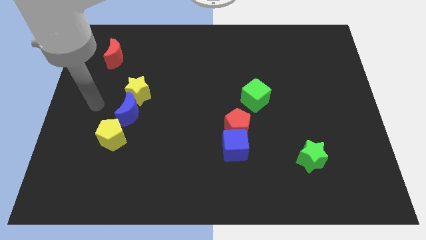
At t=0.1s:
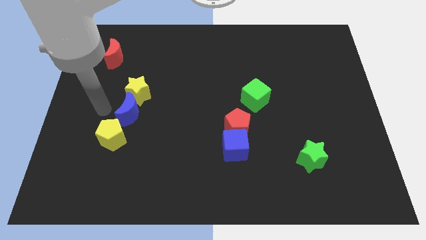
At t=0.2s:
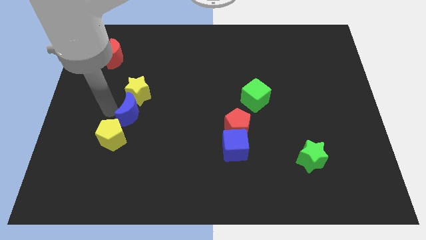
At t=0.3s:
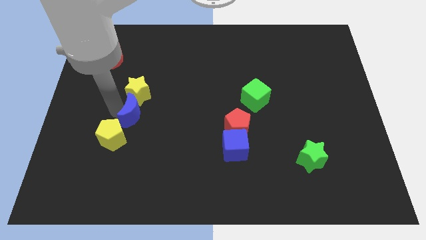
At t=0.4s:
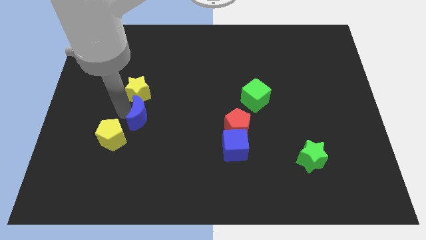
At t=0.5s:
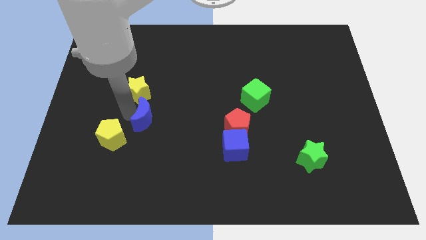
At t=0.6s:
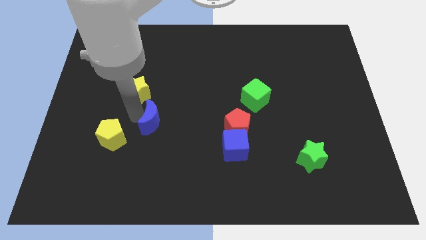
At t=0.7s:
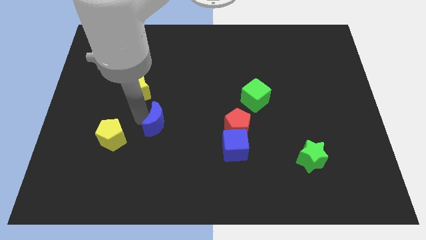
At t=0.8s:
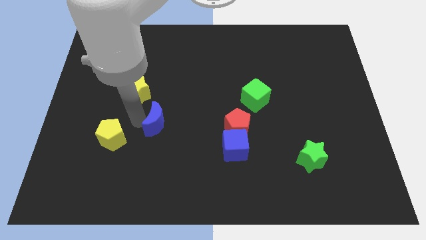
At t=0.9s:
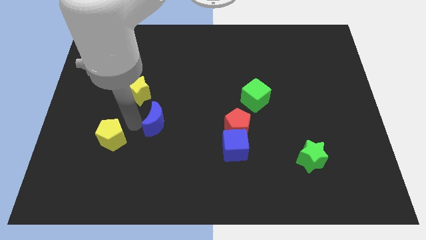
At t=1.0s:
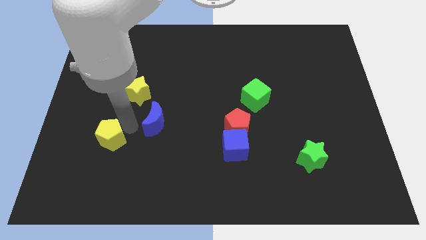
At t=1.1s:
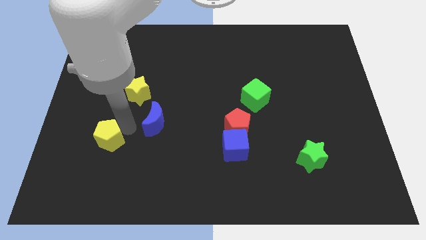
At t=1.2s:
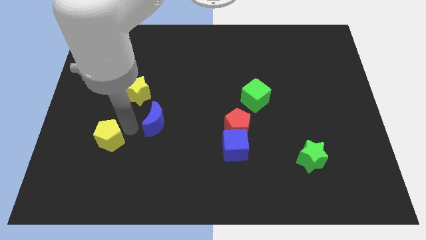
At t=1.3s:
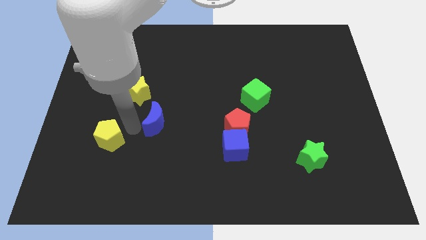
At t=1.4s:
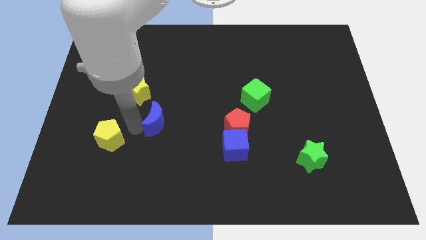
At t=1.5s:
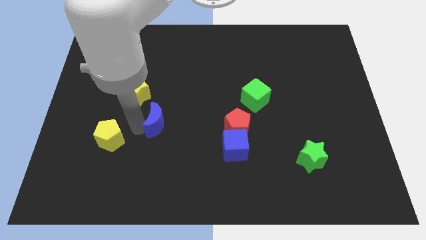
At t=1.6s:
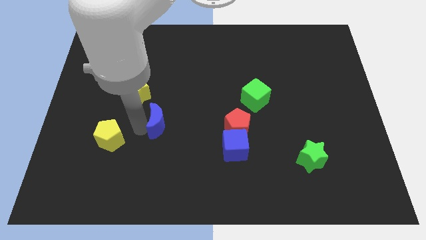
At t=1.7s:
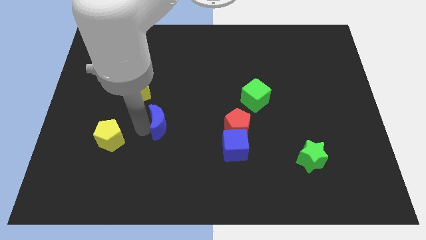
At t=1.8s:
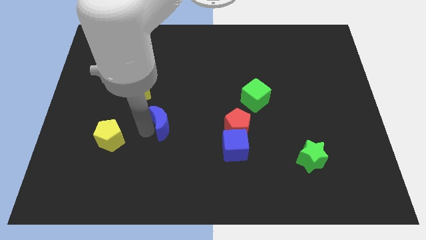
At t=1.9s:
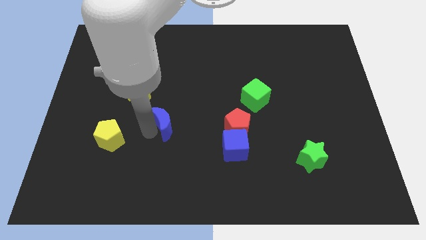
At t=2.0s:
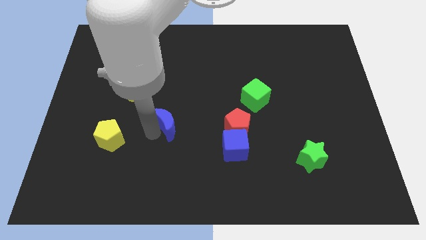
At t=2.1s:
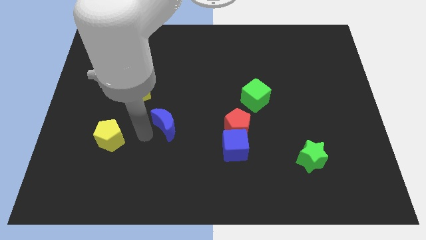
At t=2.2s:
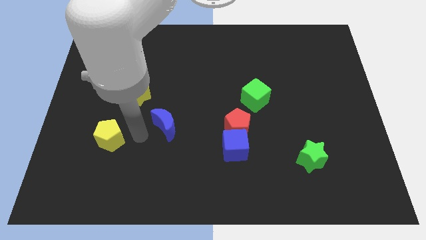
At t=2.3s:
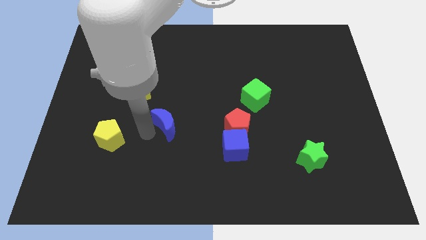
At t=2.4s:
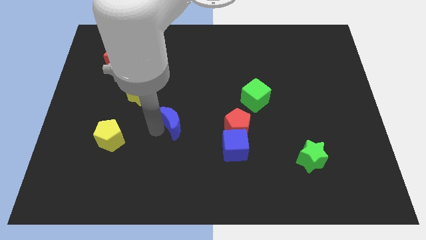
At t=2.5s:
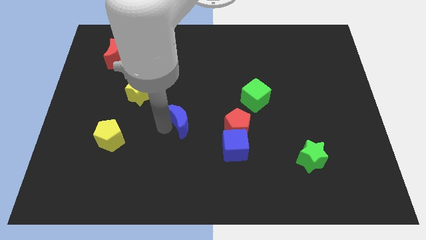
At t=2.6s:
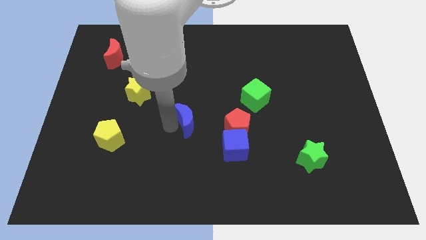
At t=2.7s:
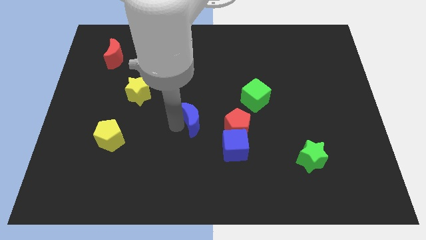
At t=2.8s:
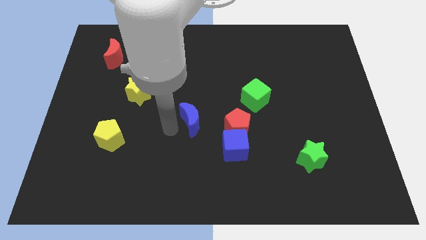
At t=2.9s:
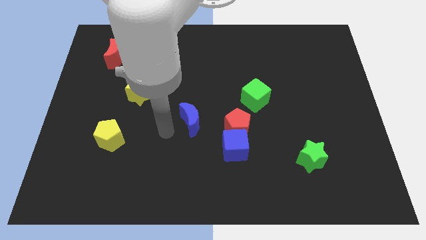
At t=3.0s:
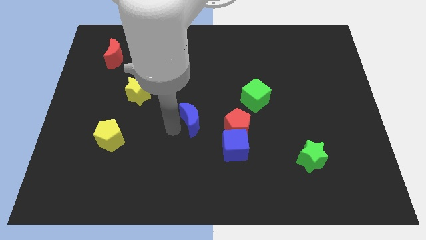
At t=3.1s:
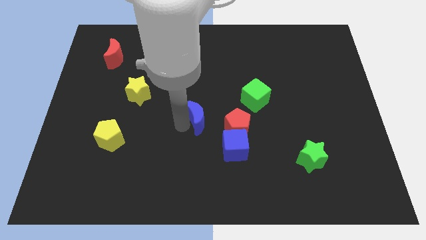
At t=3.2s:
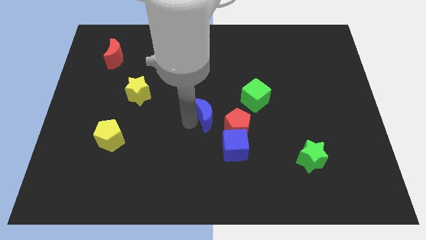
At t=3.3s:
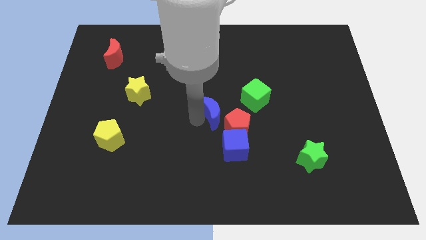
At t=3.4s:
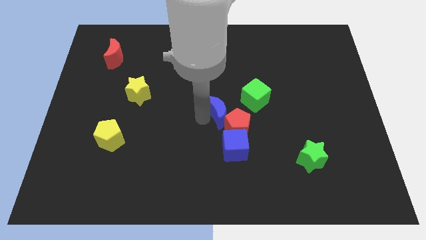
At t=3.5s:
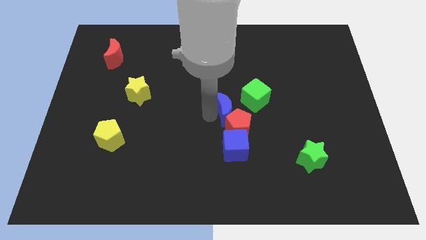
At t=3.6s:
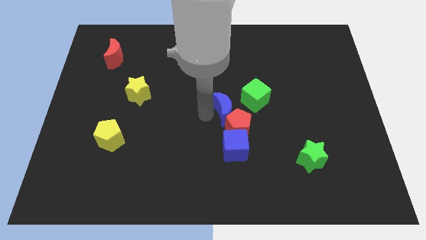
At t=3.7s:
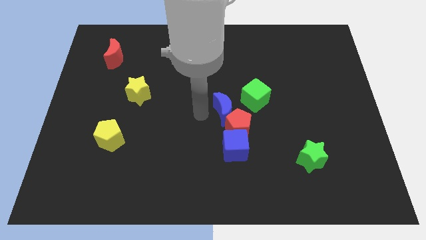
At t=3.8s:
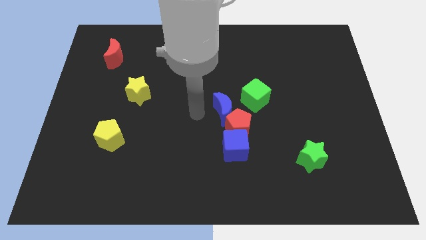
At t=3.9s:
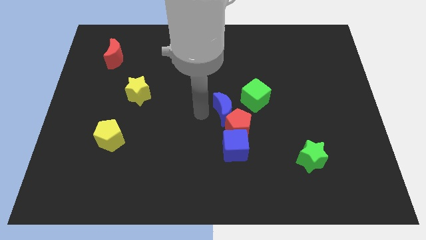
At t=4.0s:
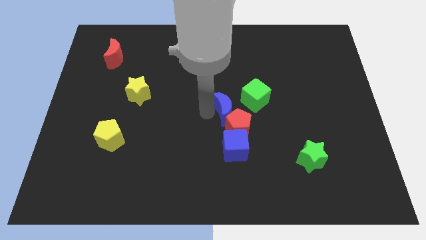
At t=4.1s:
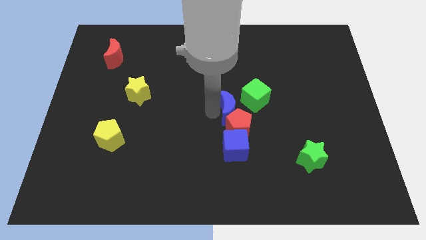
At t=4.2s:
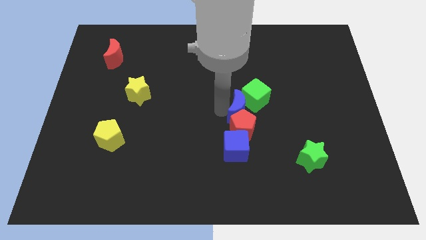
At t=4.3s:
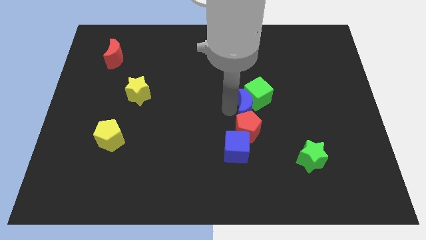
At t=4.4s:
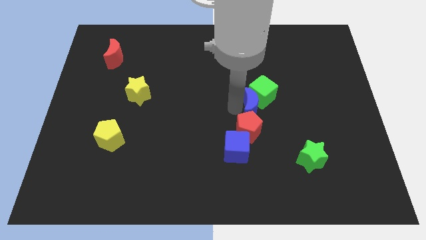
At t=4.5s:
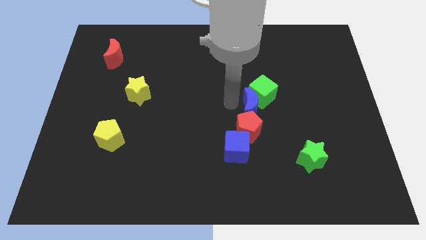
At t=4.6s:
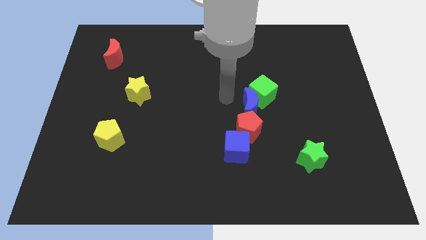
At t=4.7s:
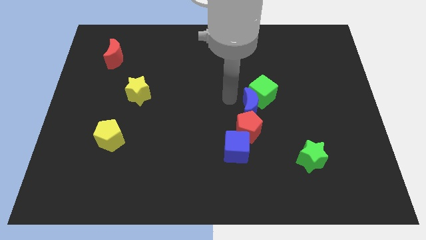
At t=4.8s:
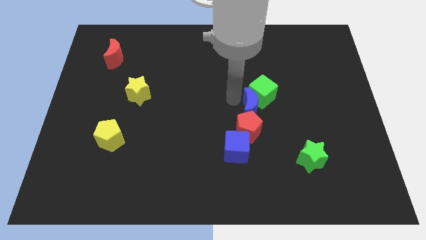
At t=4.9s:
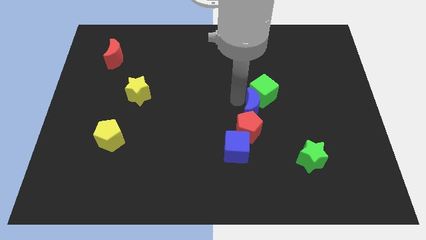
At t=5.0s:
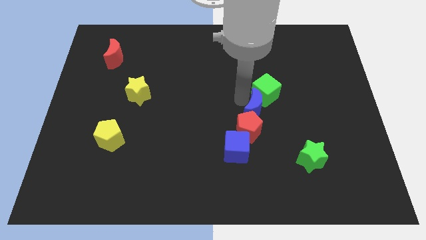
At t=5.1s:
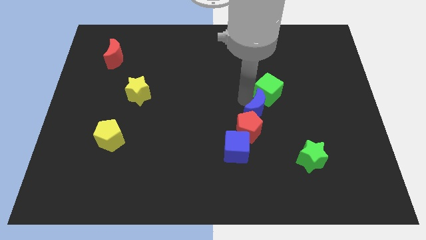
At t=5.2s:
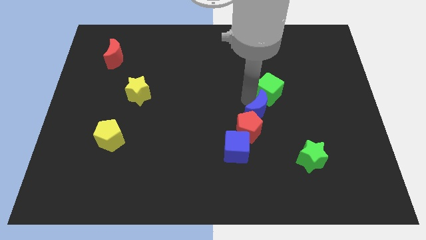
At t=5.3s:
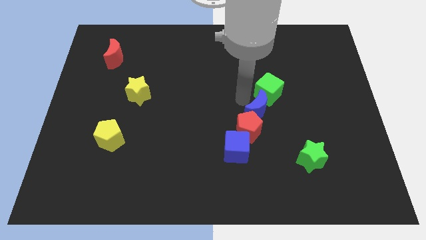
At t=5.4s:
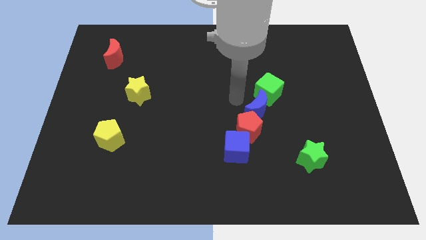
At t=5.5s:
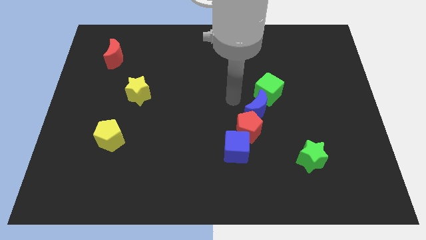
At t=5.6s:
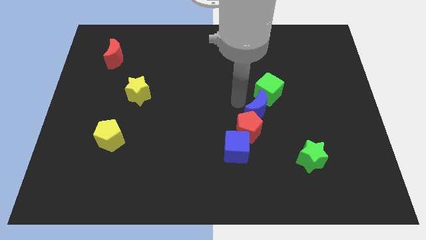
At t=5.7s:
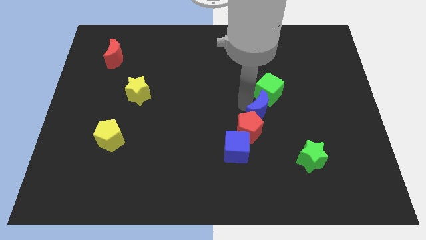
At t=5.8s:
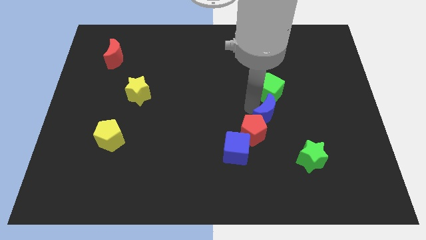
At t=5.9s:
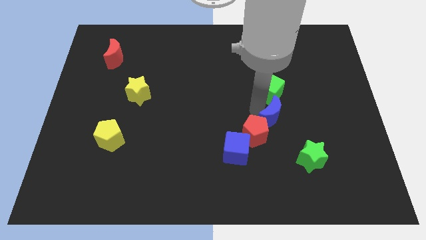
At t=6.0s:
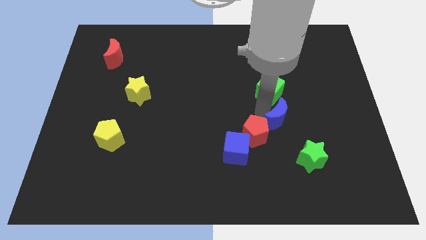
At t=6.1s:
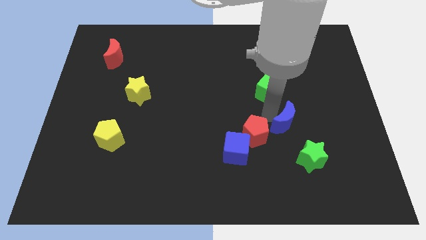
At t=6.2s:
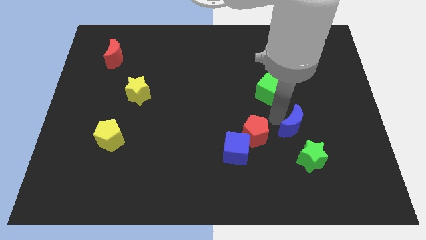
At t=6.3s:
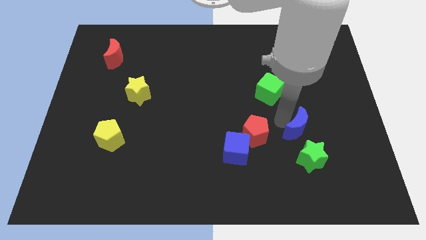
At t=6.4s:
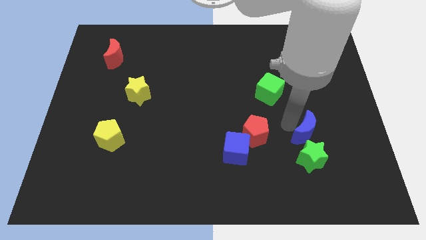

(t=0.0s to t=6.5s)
push the blue moon to the top right of the green star
